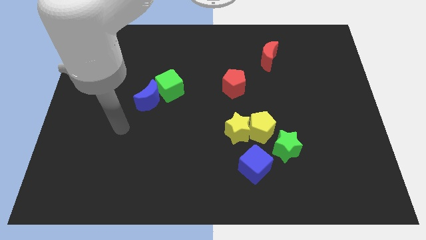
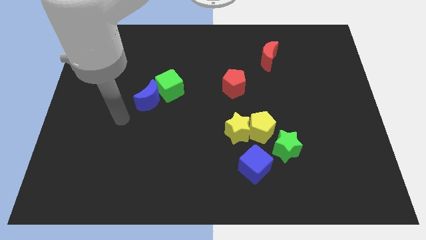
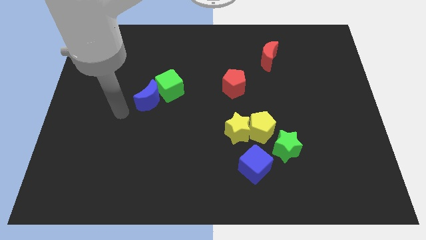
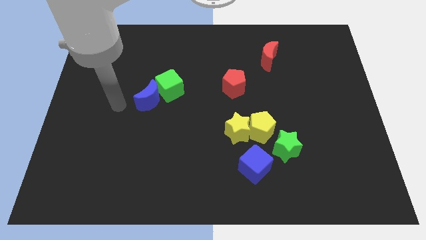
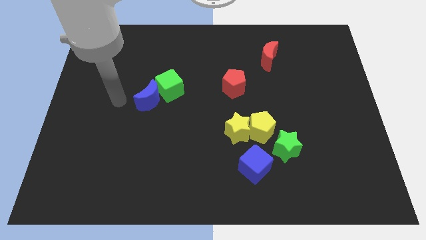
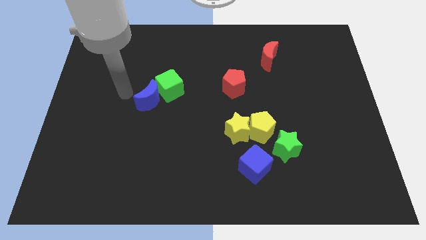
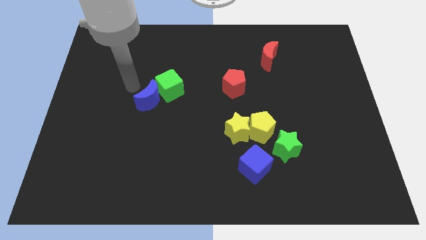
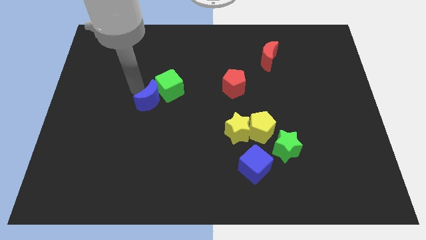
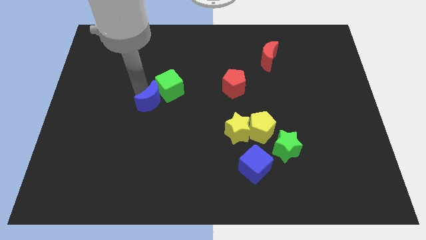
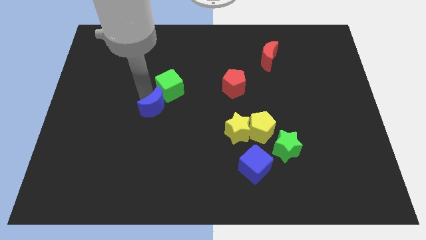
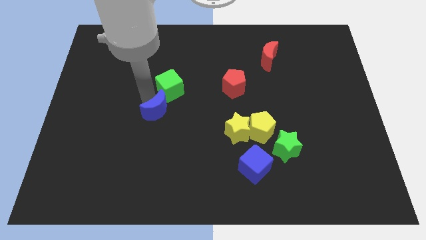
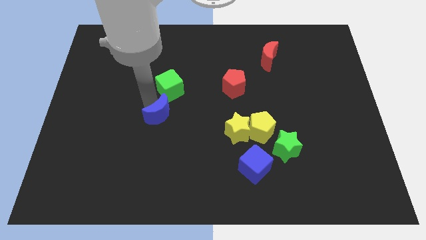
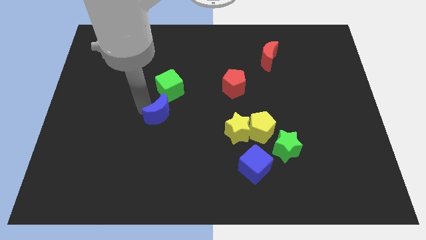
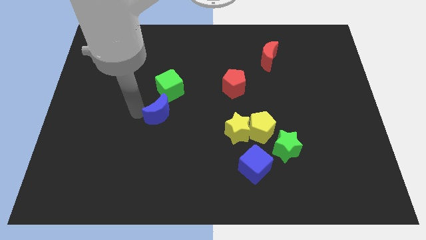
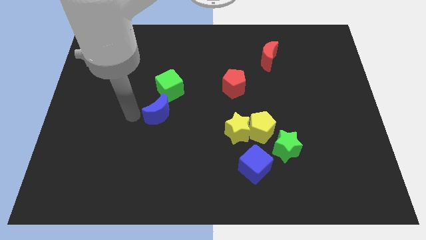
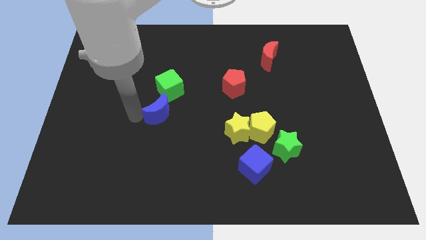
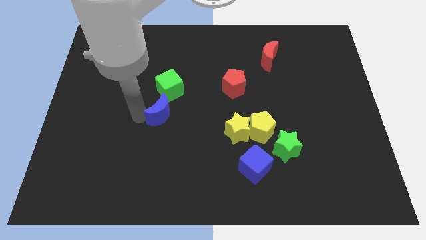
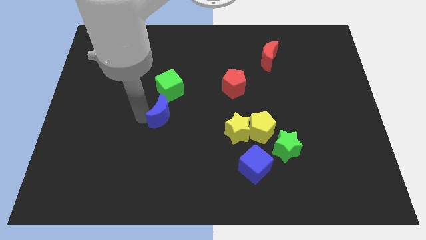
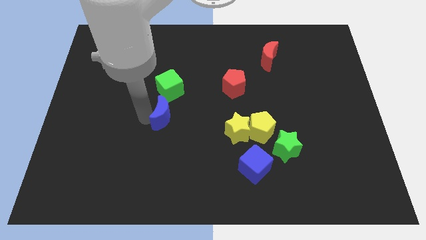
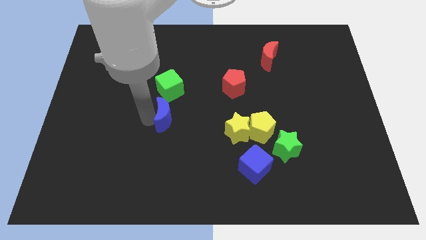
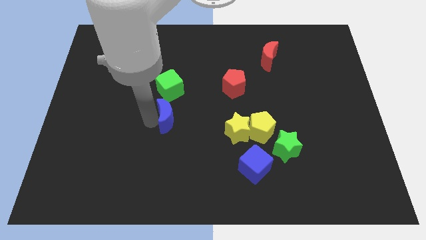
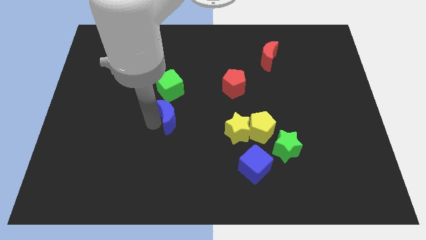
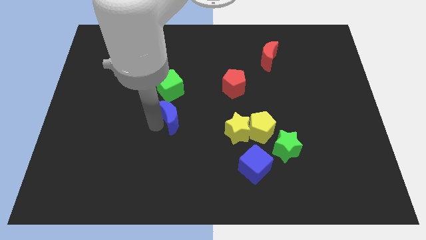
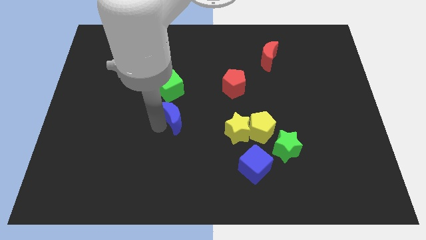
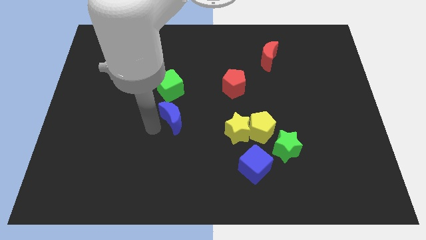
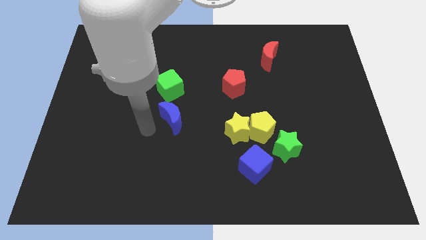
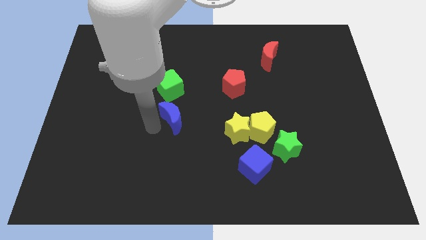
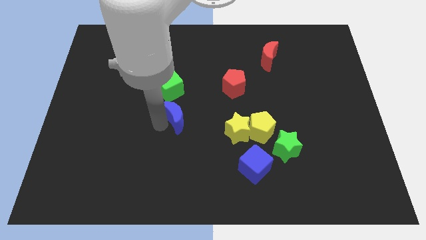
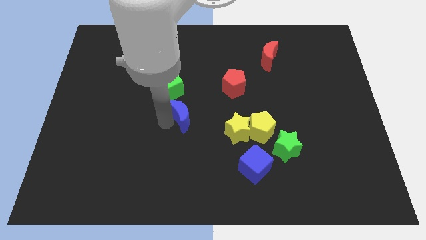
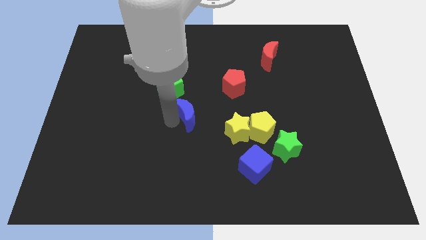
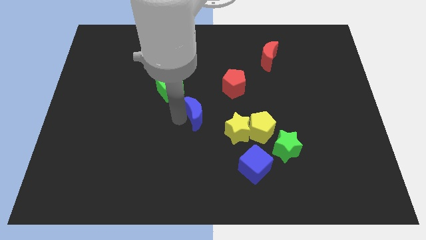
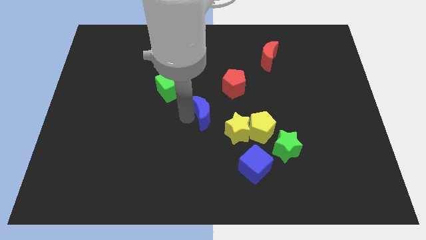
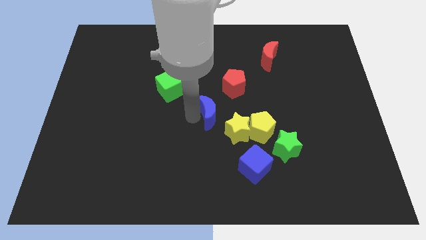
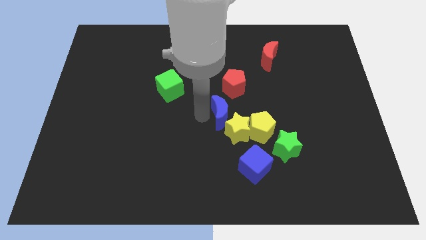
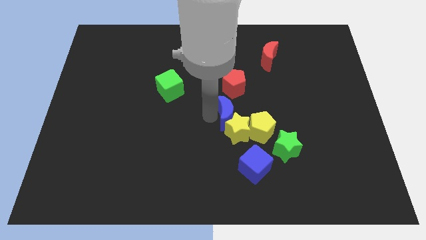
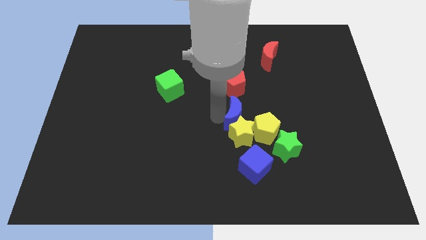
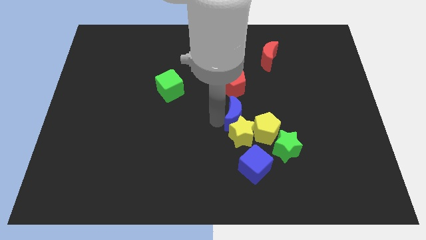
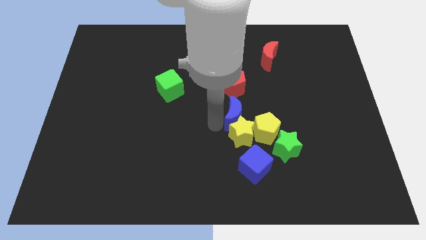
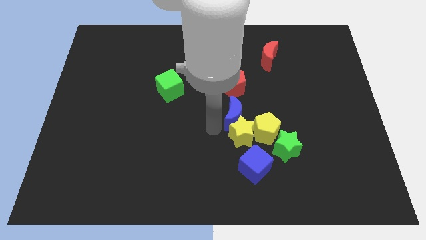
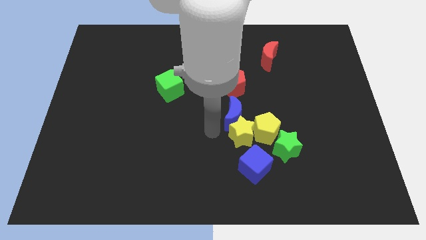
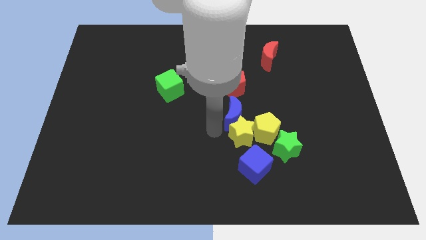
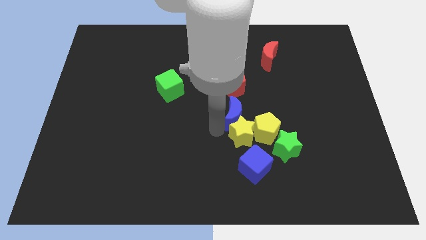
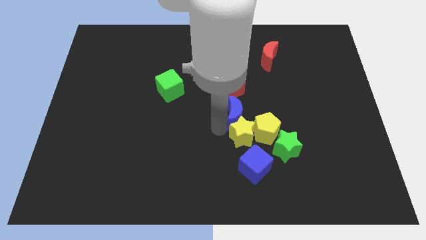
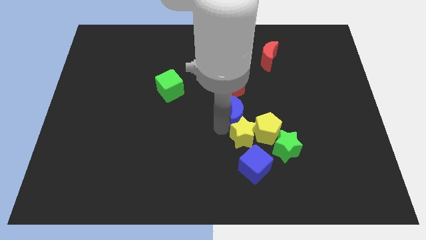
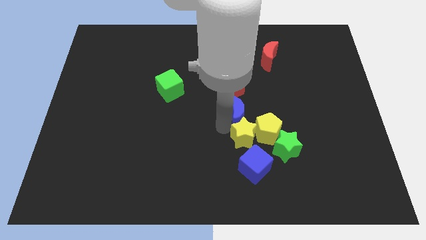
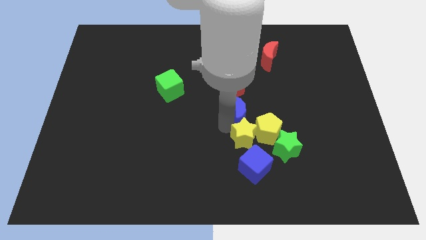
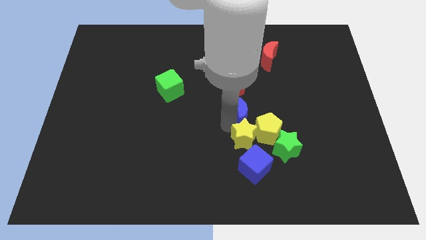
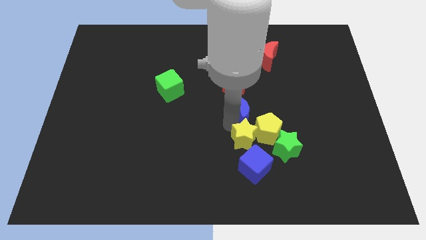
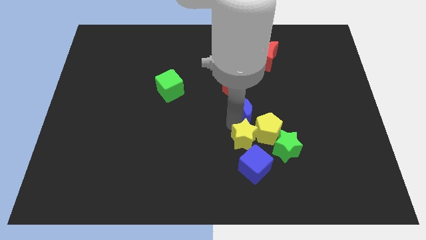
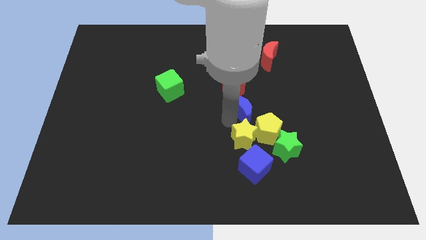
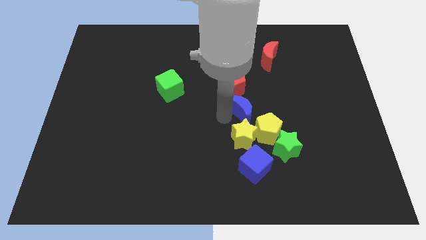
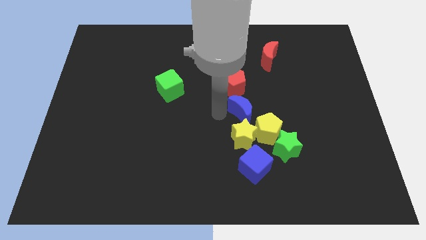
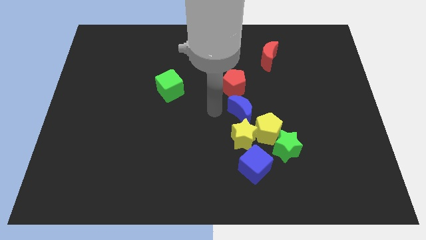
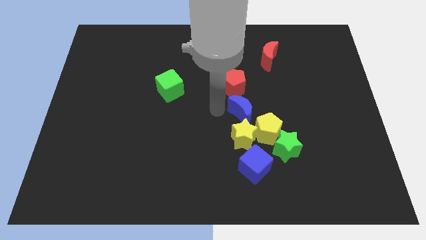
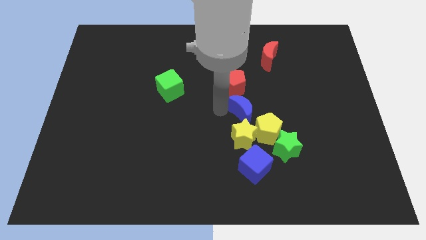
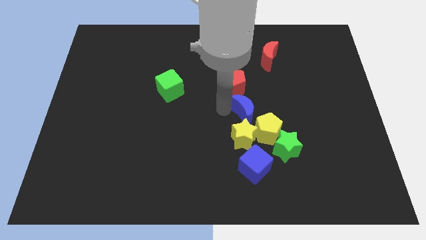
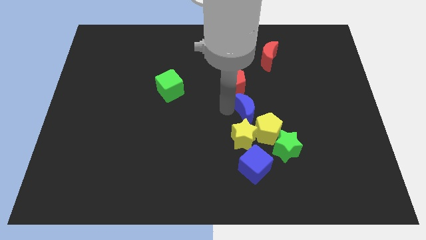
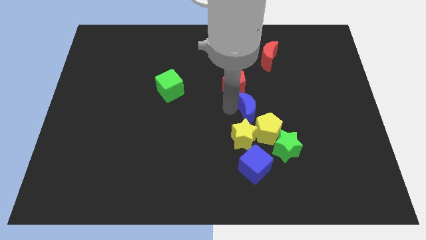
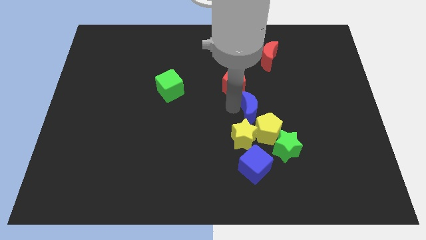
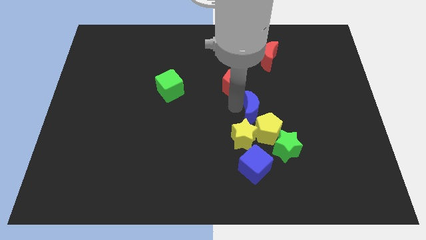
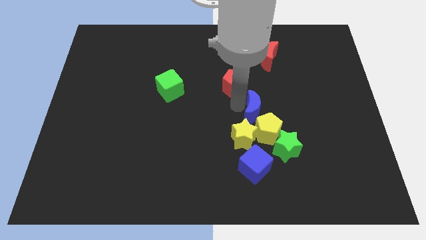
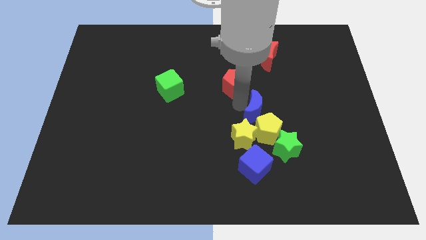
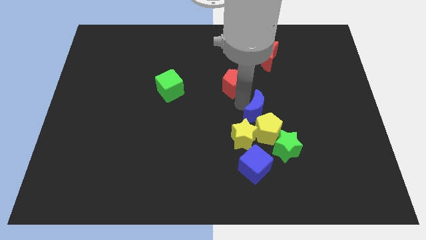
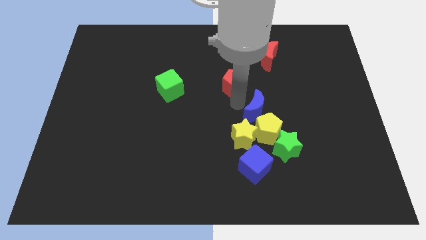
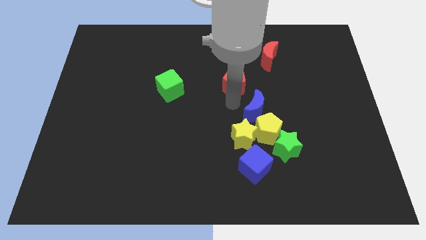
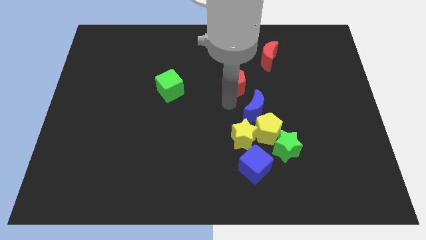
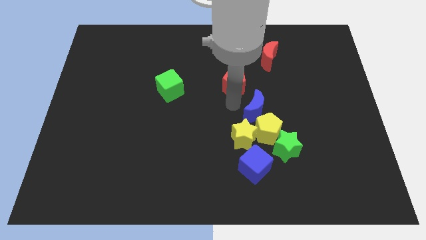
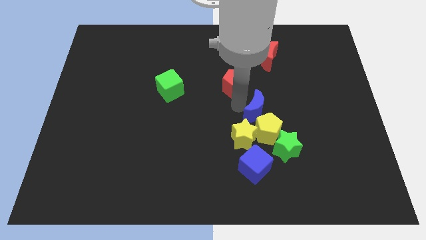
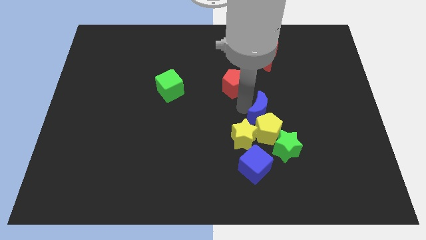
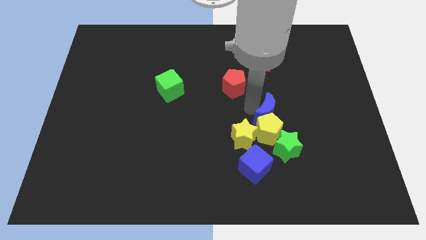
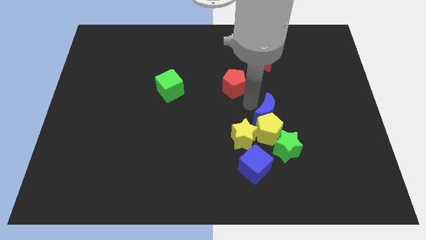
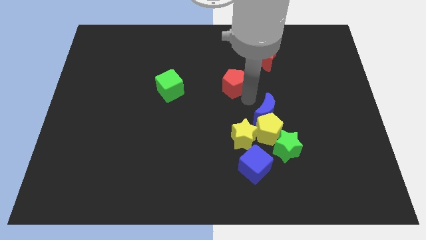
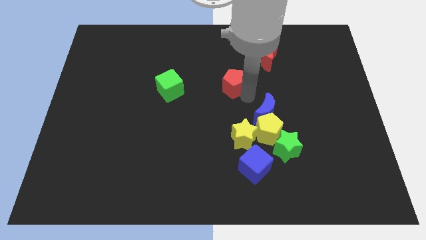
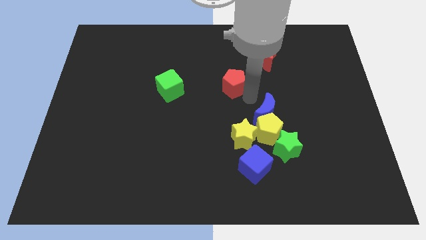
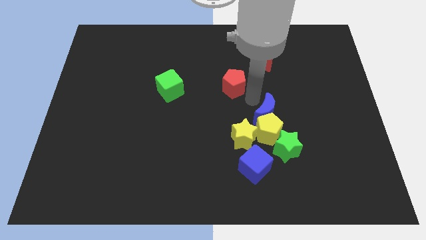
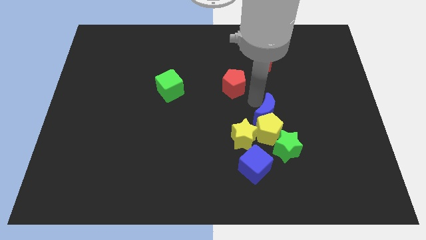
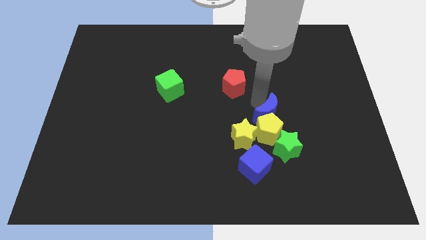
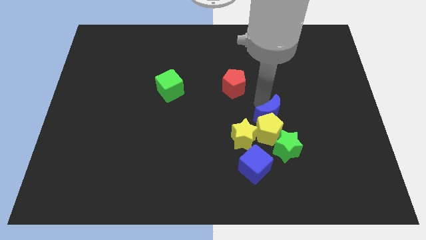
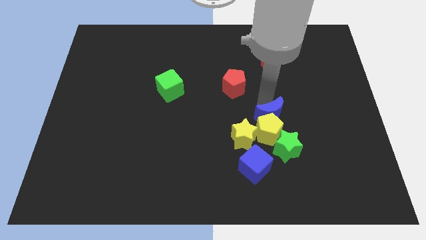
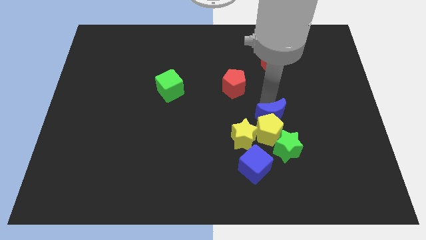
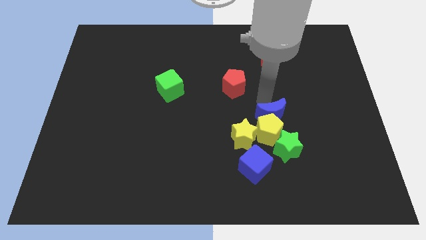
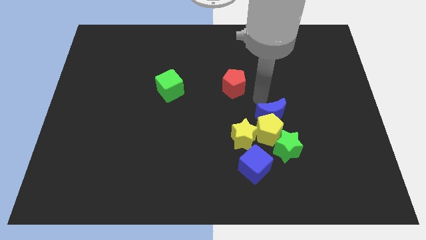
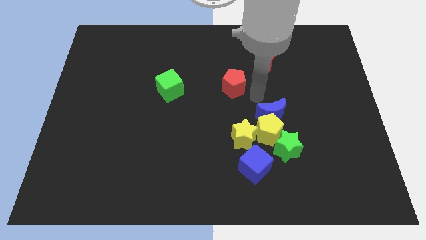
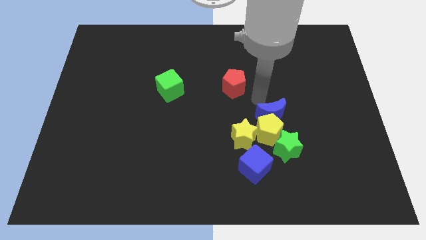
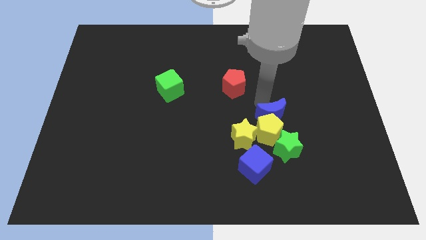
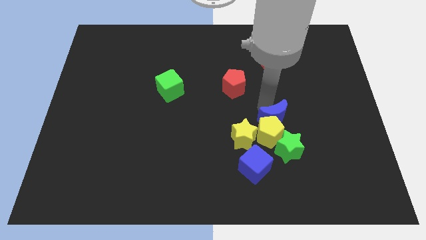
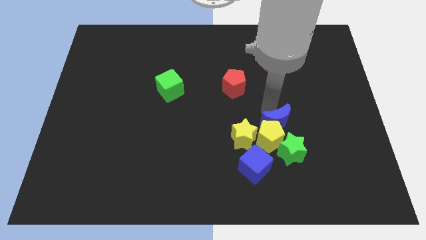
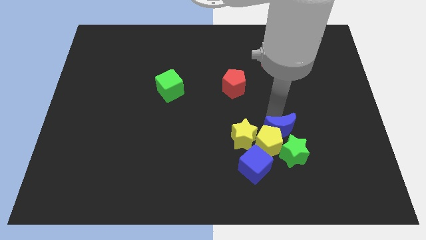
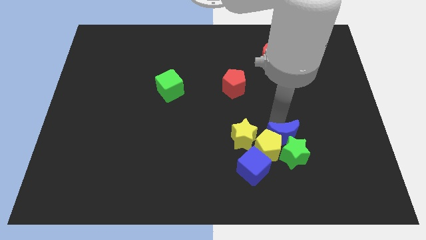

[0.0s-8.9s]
slide the blue moon next to the green star
